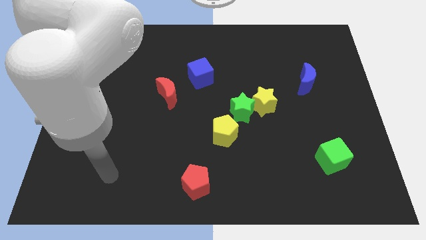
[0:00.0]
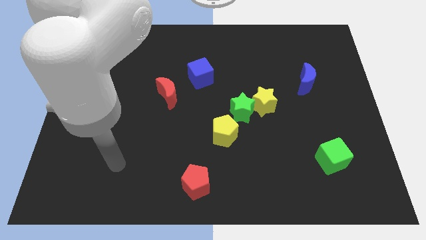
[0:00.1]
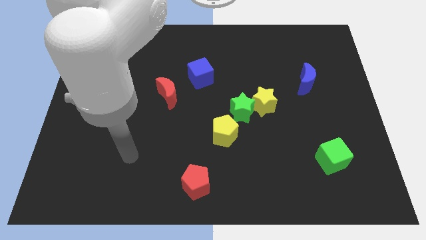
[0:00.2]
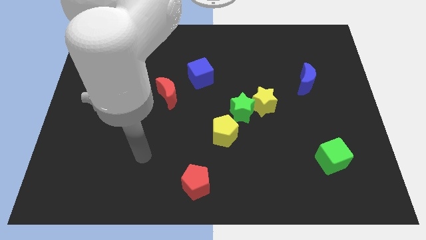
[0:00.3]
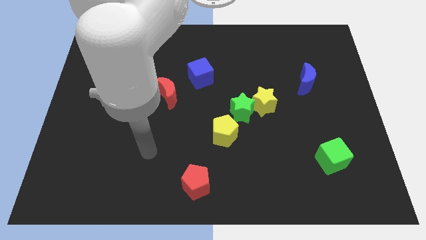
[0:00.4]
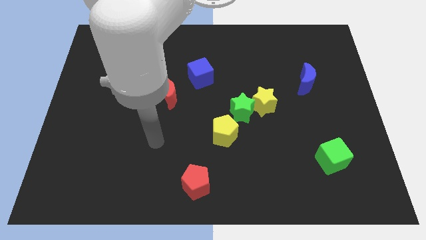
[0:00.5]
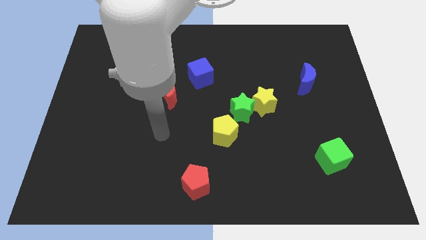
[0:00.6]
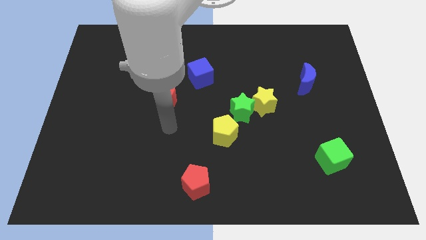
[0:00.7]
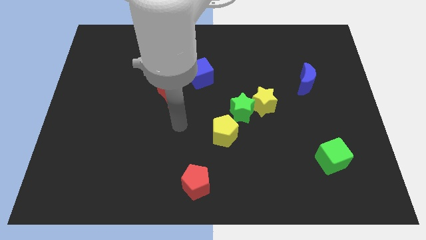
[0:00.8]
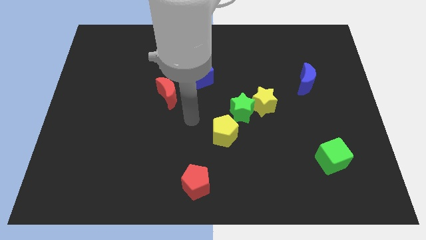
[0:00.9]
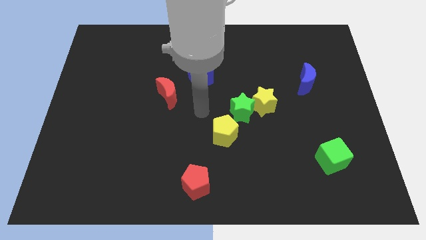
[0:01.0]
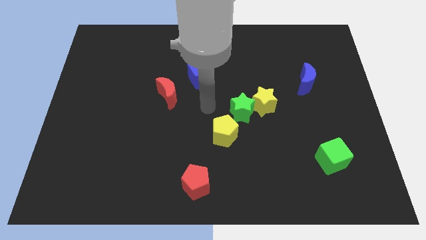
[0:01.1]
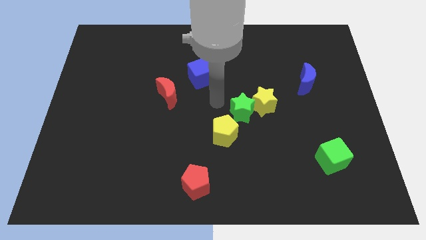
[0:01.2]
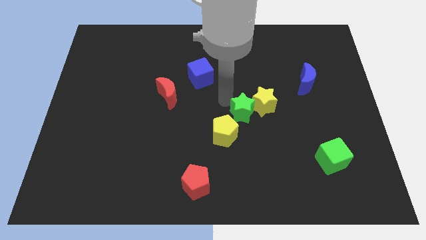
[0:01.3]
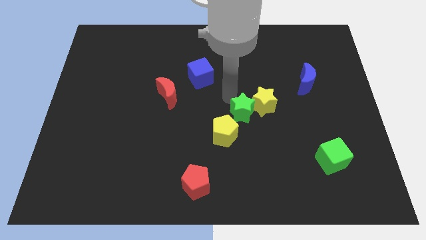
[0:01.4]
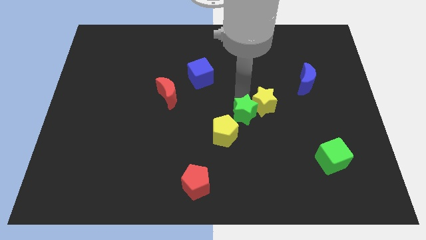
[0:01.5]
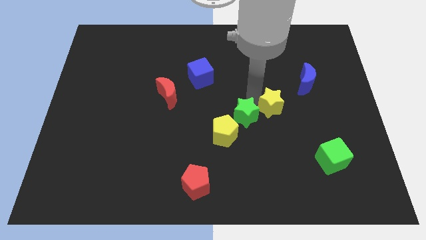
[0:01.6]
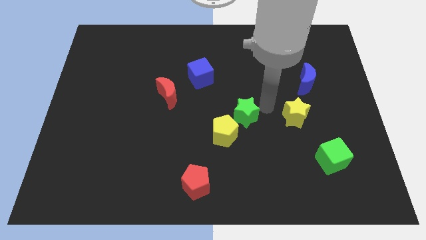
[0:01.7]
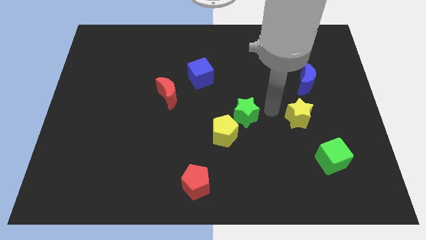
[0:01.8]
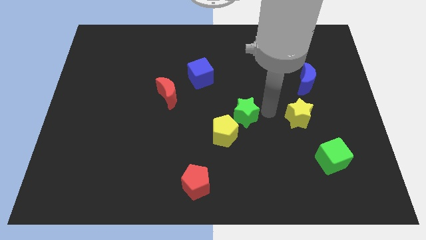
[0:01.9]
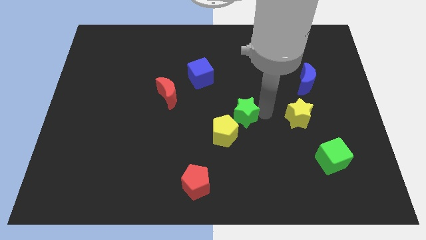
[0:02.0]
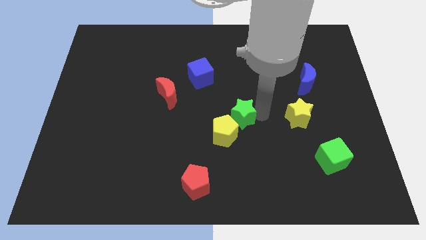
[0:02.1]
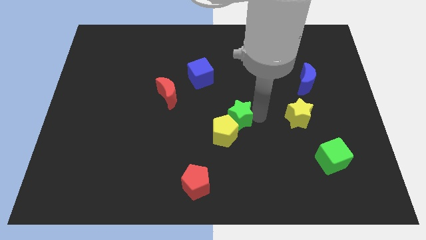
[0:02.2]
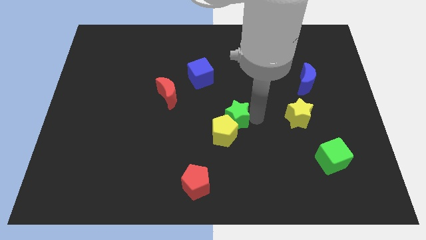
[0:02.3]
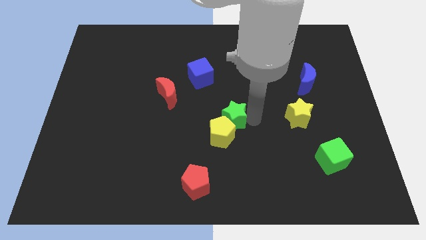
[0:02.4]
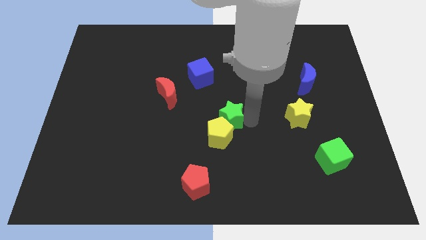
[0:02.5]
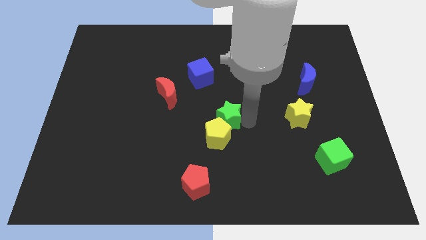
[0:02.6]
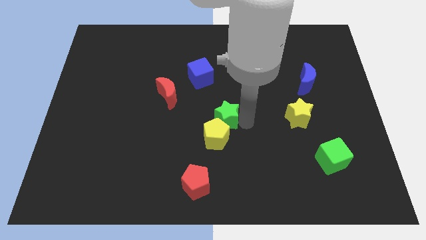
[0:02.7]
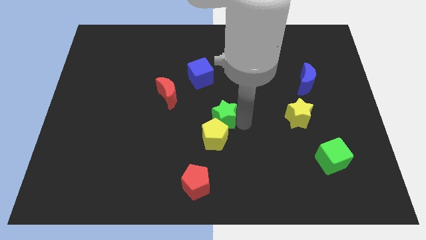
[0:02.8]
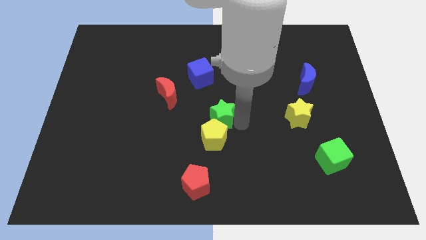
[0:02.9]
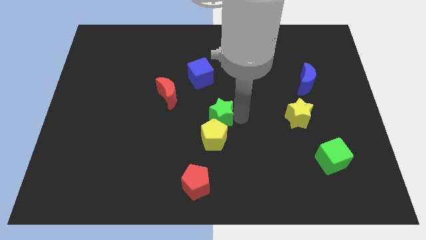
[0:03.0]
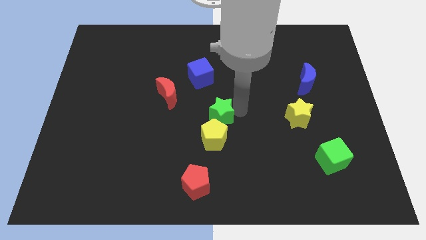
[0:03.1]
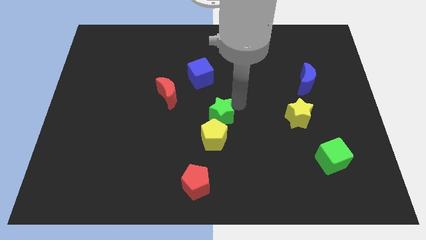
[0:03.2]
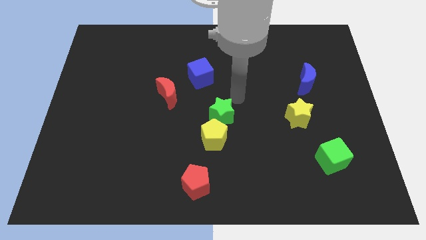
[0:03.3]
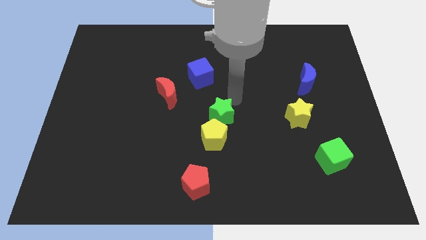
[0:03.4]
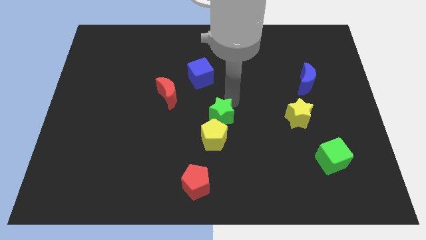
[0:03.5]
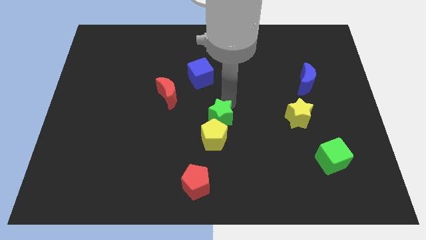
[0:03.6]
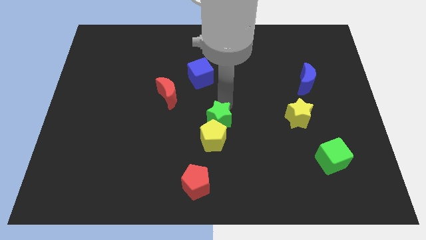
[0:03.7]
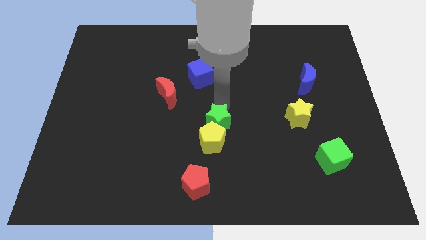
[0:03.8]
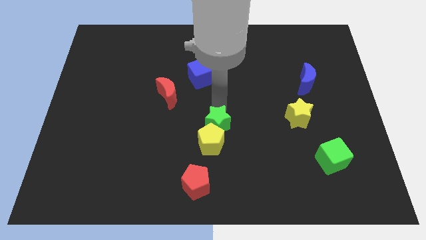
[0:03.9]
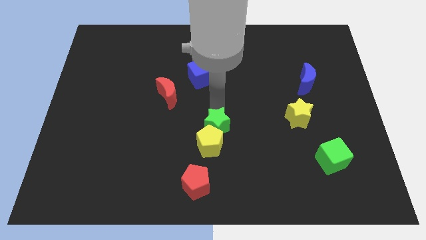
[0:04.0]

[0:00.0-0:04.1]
push the green star a little bit downwards and then to the left

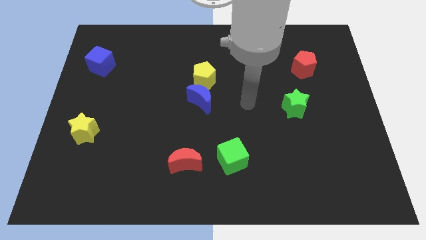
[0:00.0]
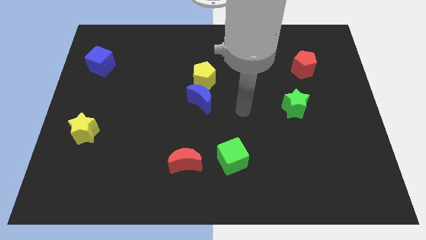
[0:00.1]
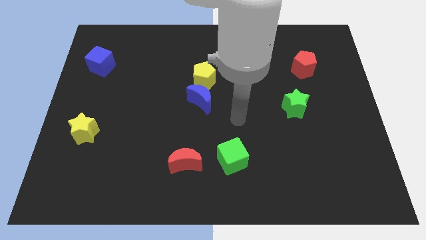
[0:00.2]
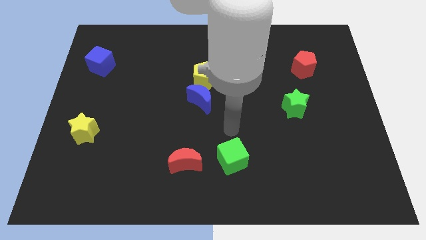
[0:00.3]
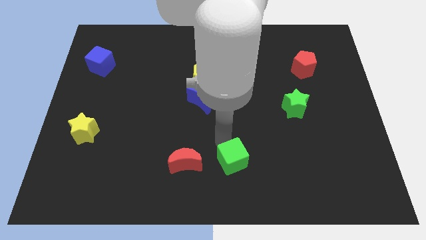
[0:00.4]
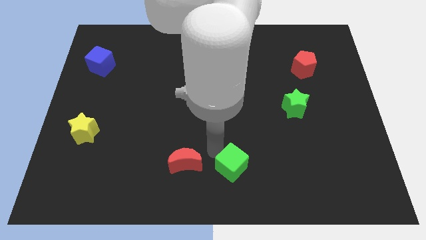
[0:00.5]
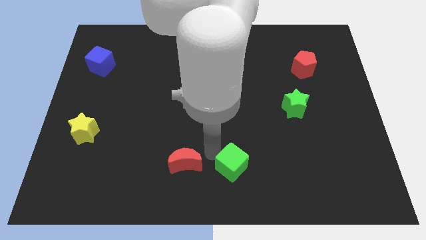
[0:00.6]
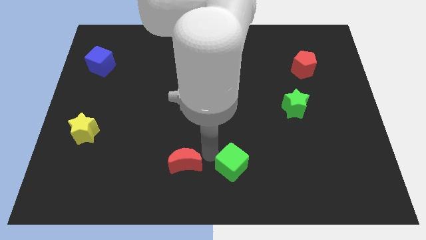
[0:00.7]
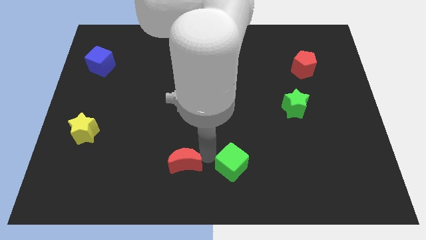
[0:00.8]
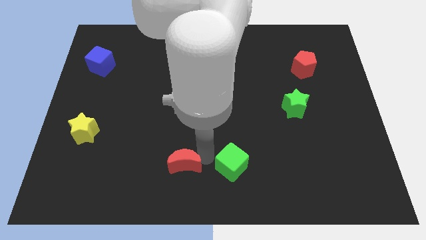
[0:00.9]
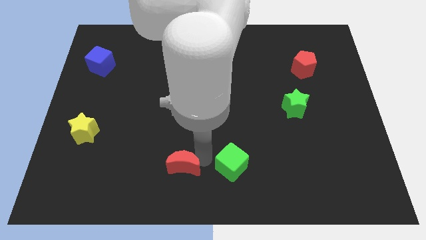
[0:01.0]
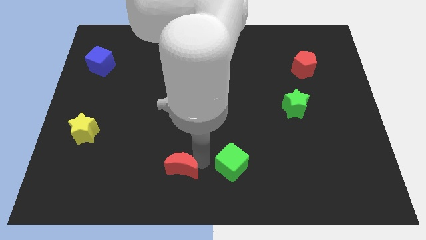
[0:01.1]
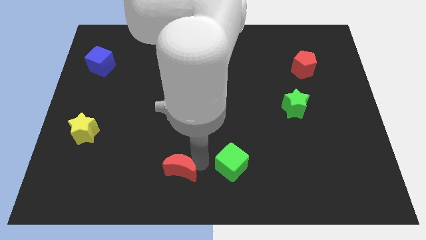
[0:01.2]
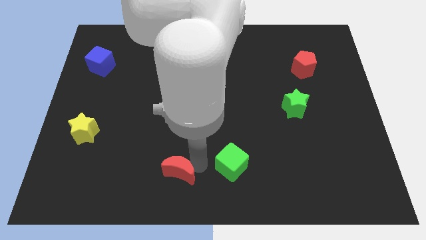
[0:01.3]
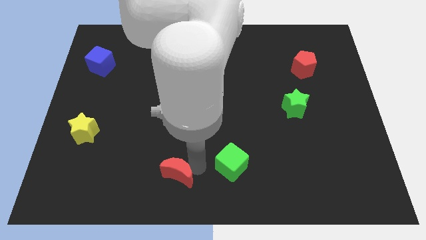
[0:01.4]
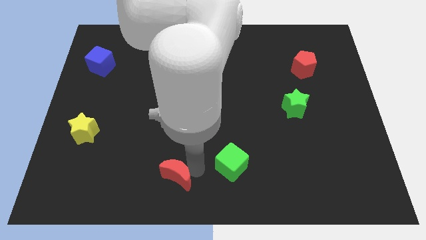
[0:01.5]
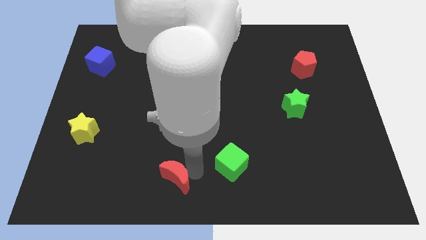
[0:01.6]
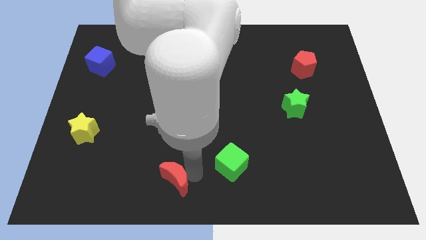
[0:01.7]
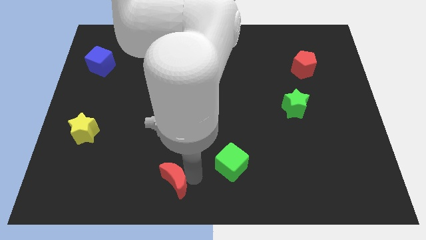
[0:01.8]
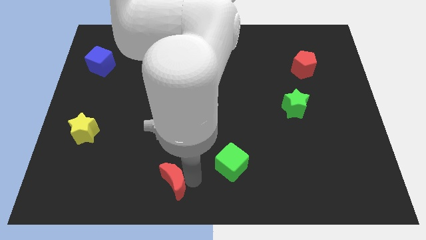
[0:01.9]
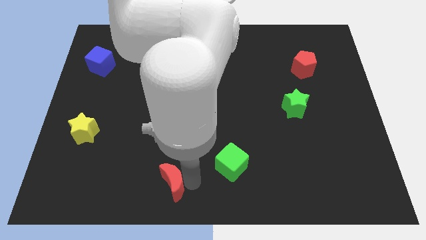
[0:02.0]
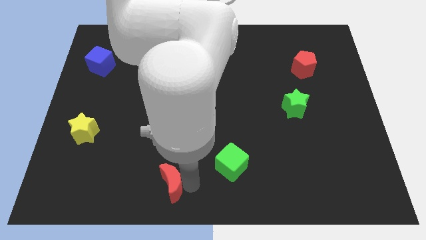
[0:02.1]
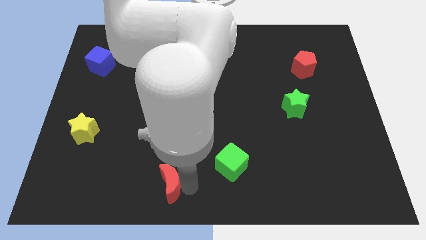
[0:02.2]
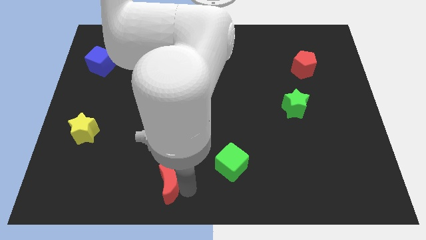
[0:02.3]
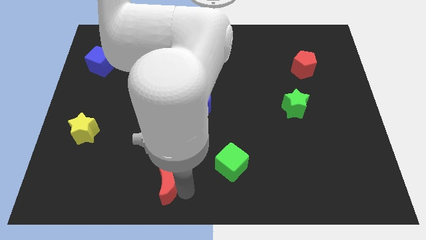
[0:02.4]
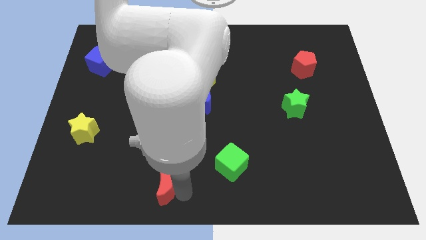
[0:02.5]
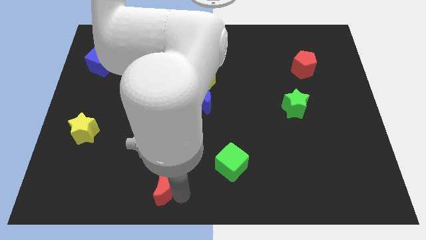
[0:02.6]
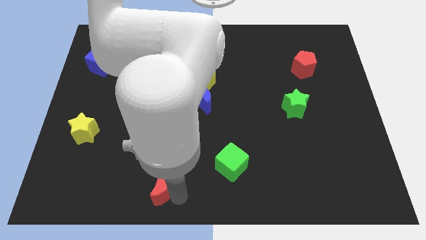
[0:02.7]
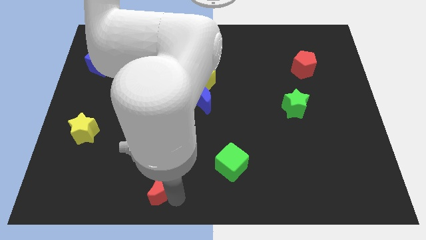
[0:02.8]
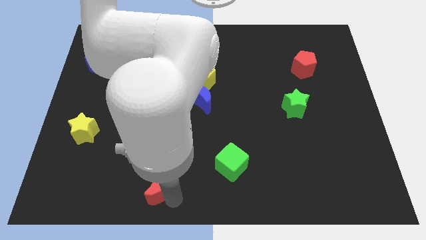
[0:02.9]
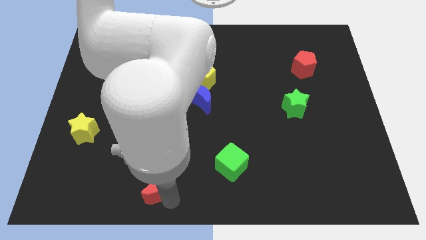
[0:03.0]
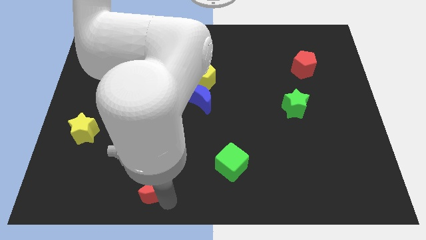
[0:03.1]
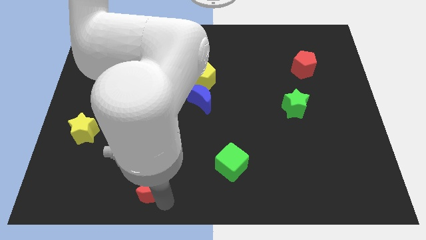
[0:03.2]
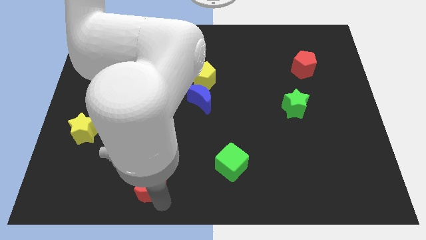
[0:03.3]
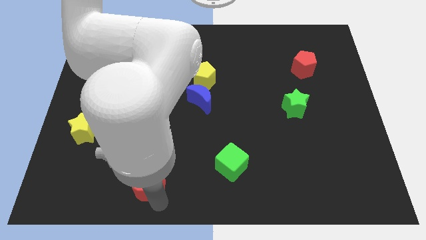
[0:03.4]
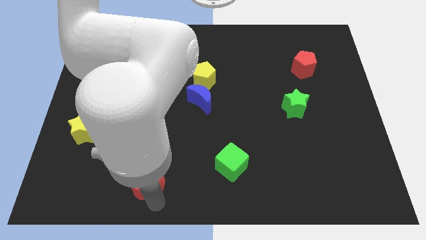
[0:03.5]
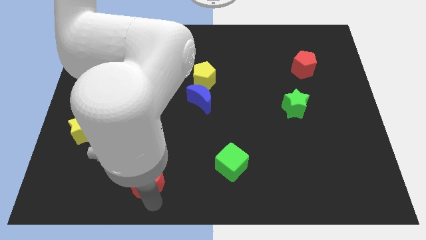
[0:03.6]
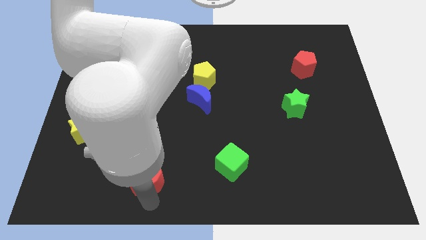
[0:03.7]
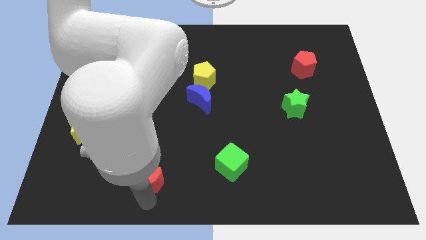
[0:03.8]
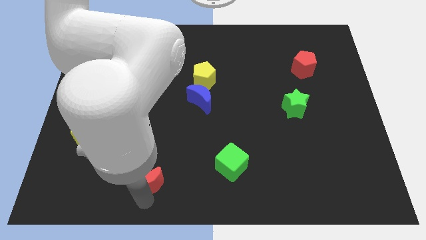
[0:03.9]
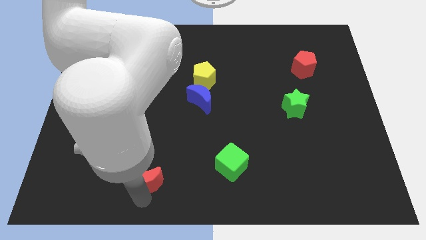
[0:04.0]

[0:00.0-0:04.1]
push the red moon somewhat to the left

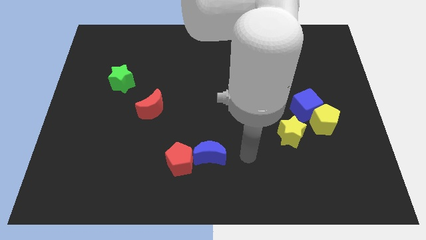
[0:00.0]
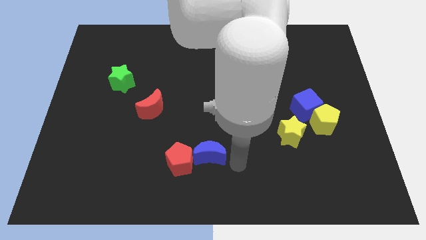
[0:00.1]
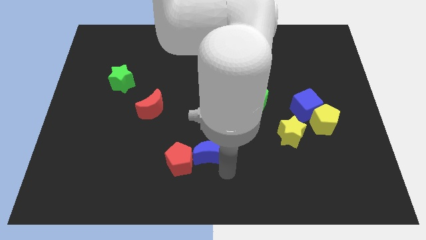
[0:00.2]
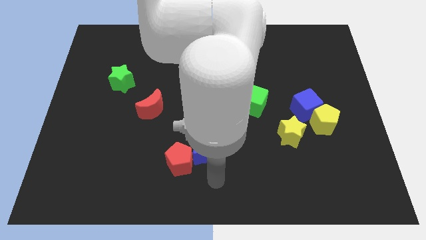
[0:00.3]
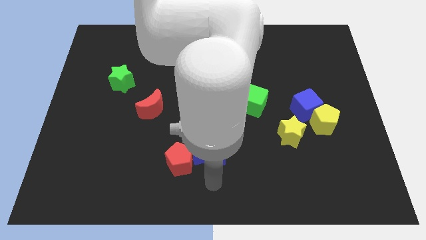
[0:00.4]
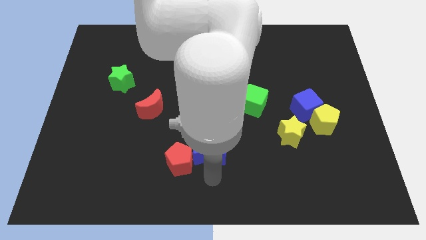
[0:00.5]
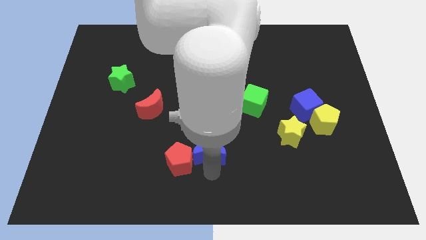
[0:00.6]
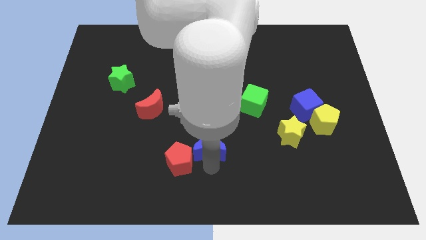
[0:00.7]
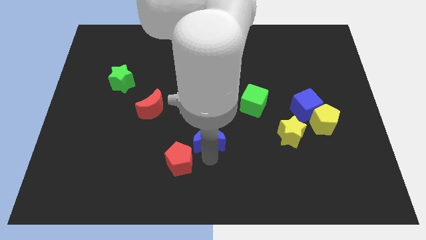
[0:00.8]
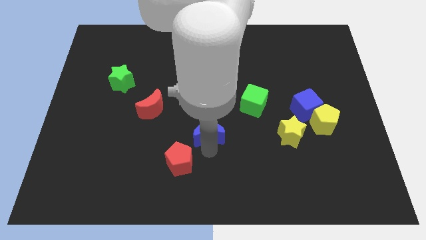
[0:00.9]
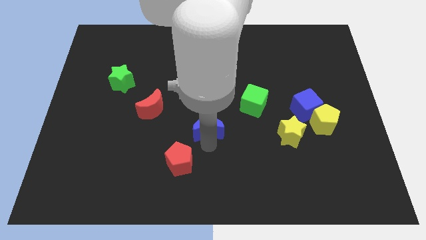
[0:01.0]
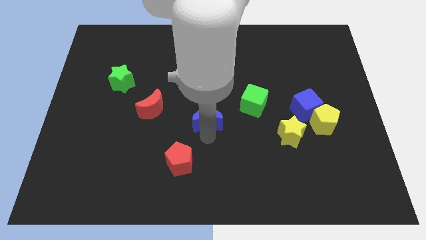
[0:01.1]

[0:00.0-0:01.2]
slide the blue moon up slightly
